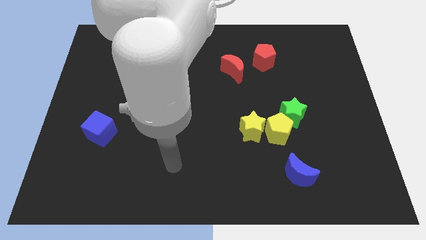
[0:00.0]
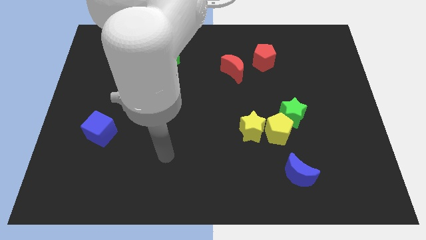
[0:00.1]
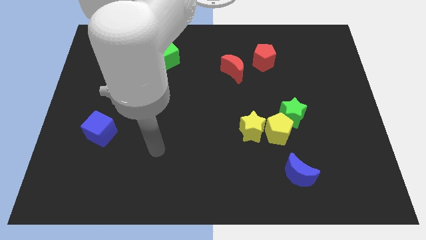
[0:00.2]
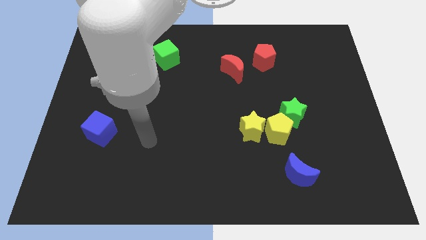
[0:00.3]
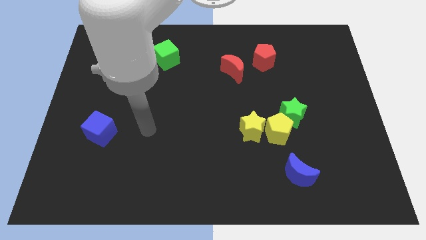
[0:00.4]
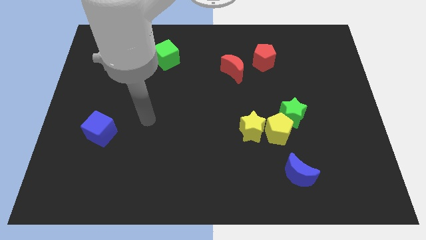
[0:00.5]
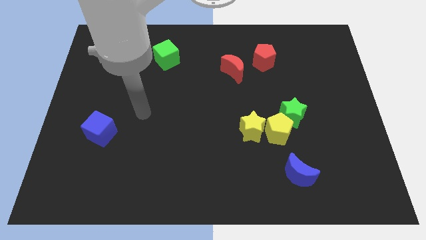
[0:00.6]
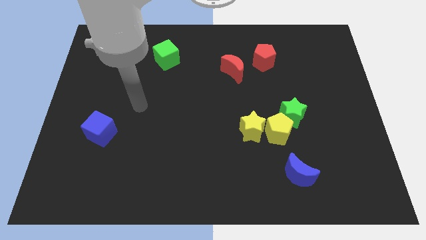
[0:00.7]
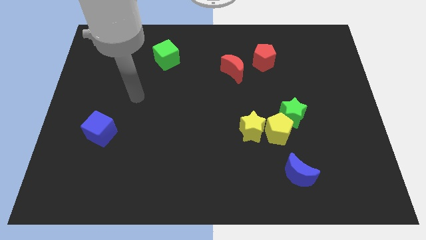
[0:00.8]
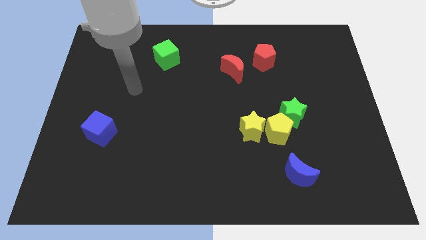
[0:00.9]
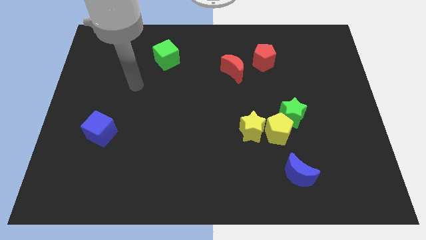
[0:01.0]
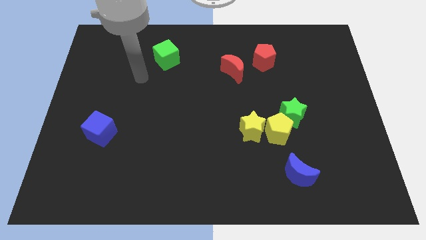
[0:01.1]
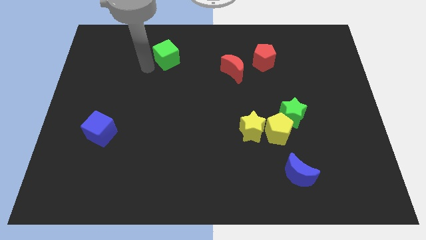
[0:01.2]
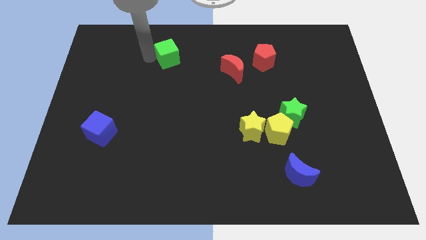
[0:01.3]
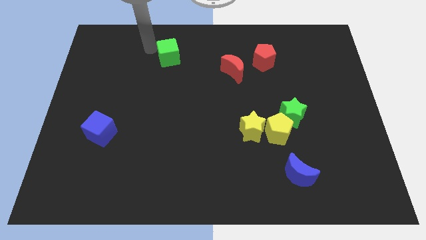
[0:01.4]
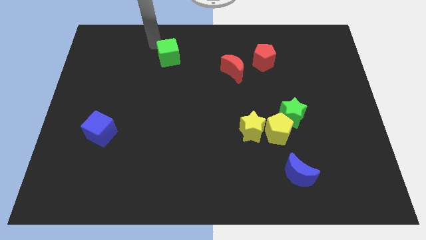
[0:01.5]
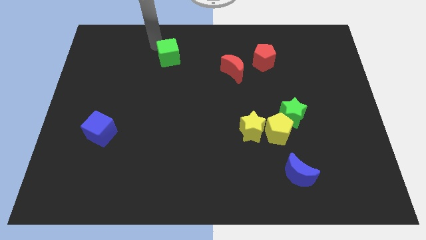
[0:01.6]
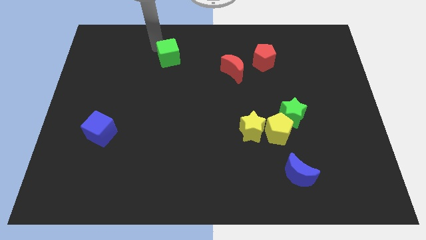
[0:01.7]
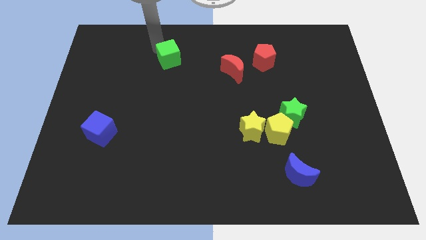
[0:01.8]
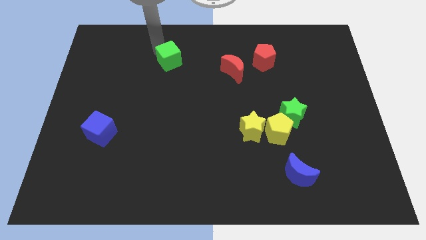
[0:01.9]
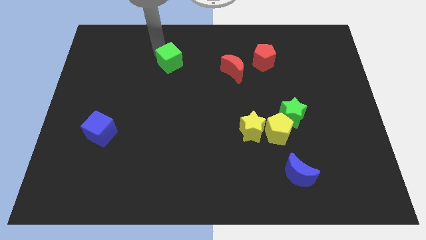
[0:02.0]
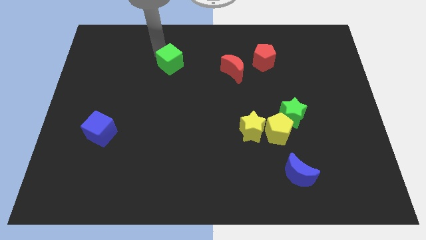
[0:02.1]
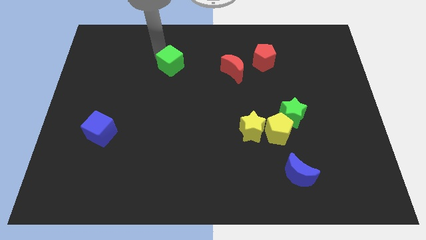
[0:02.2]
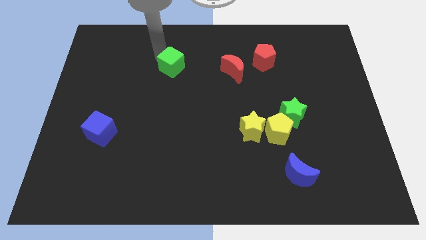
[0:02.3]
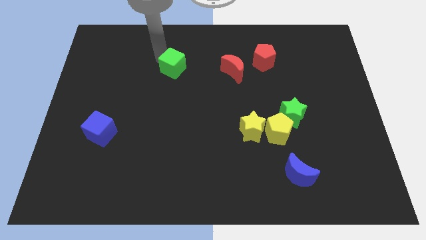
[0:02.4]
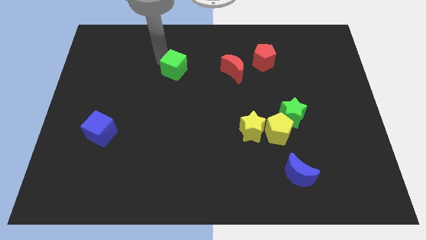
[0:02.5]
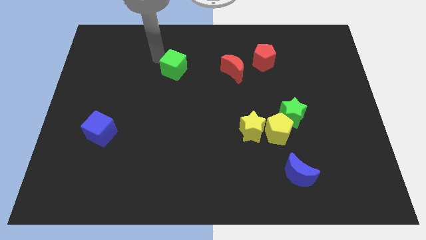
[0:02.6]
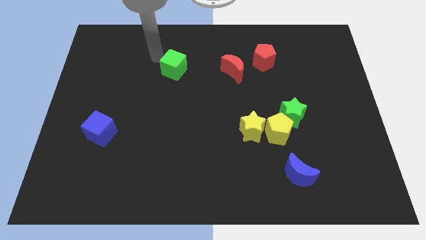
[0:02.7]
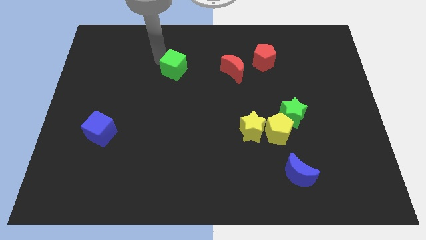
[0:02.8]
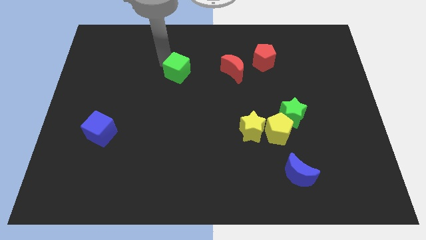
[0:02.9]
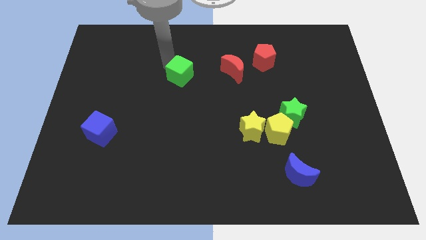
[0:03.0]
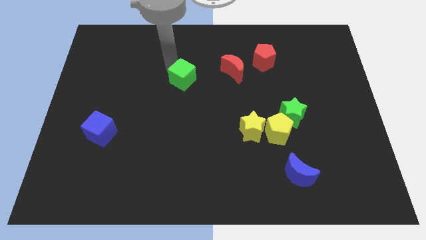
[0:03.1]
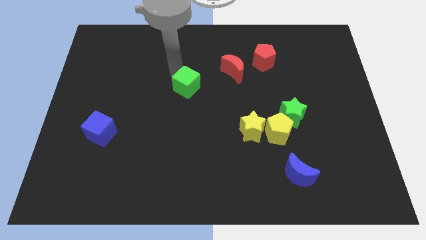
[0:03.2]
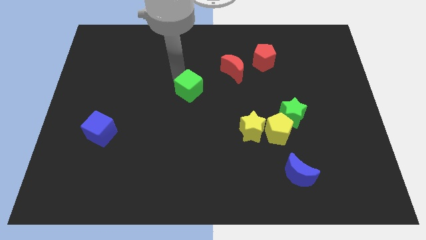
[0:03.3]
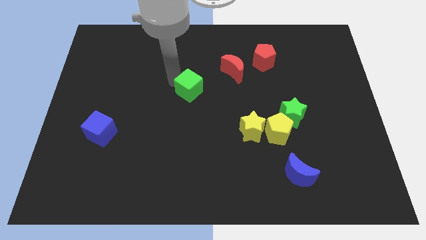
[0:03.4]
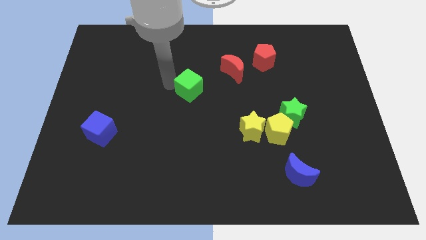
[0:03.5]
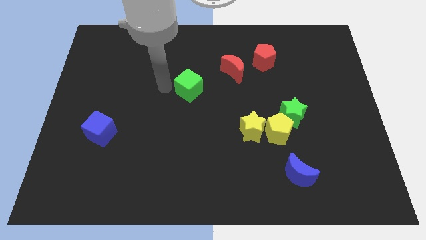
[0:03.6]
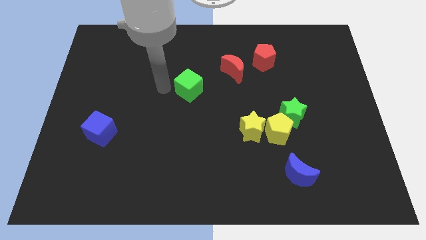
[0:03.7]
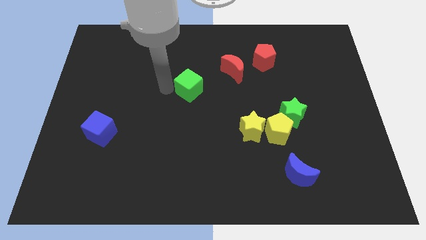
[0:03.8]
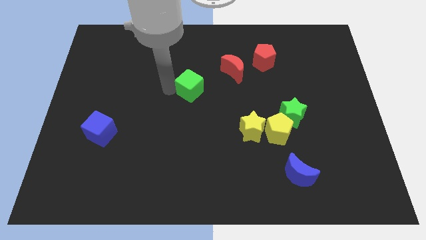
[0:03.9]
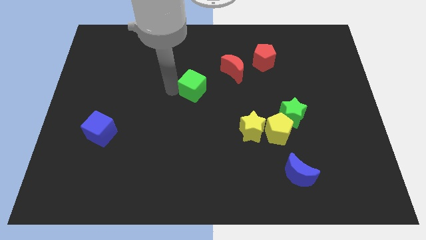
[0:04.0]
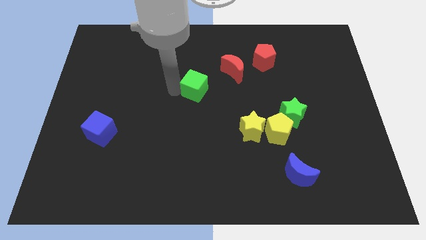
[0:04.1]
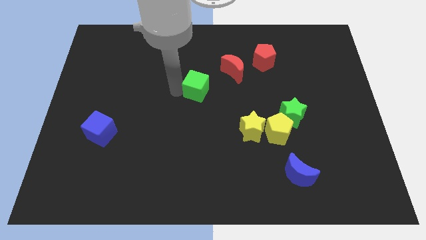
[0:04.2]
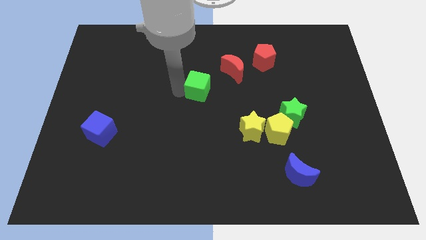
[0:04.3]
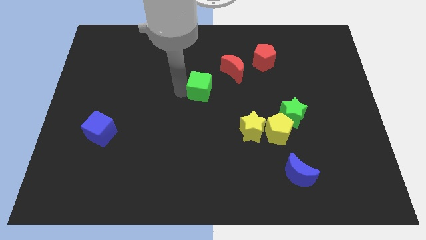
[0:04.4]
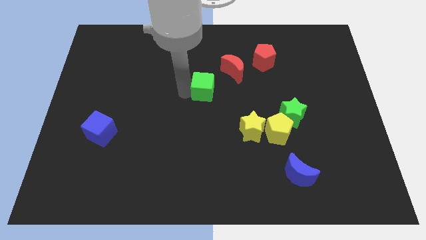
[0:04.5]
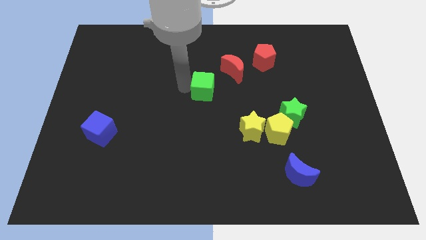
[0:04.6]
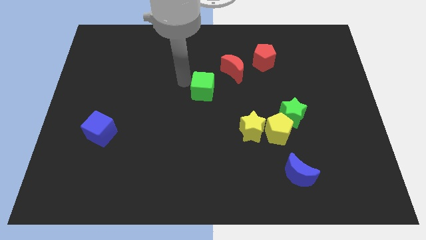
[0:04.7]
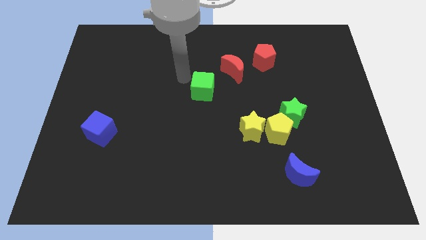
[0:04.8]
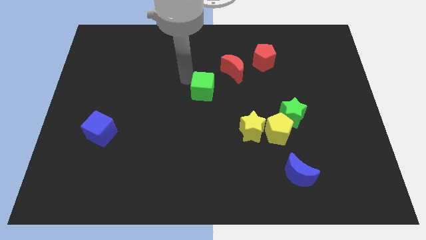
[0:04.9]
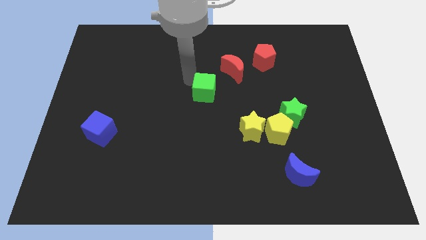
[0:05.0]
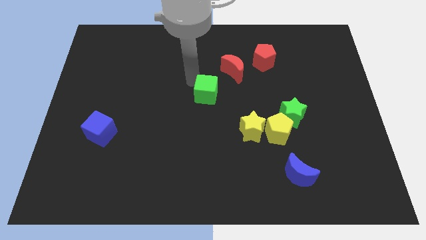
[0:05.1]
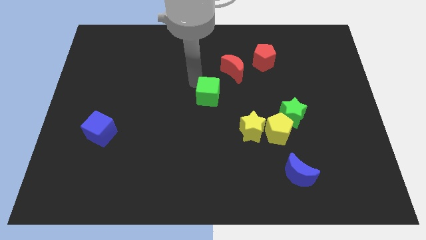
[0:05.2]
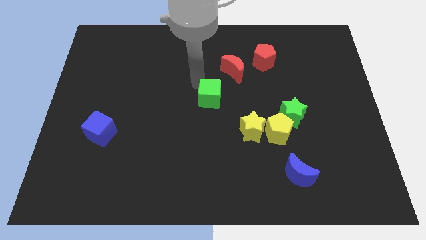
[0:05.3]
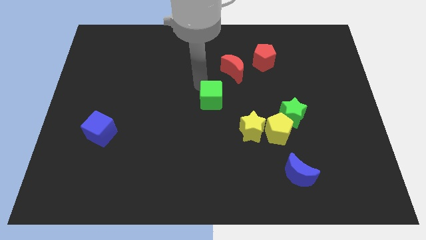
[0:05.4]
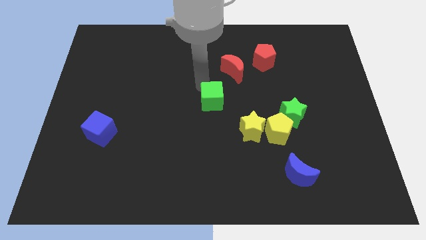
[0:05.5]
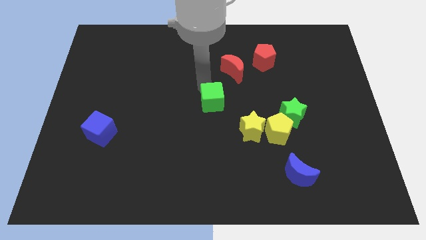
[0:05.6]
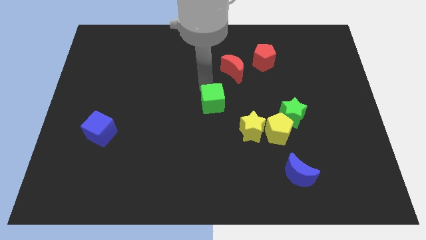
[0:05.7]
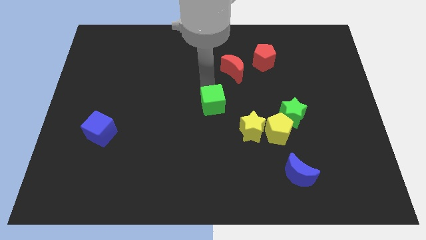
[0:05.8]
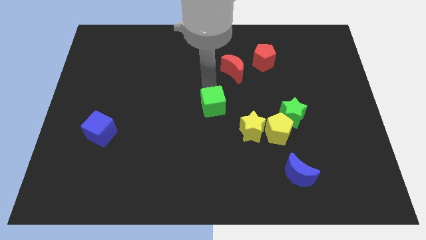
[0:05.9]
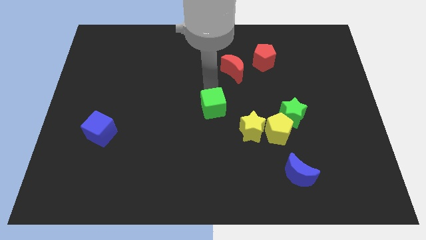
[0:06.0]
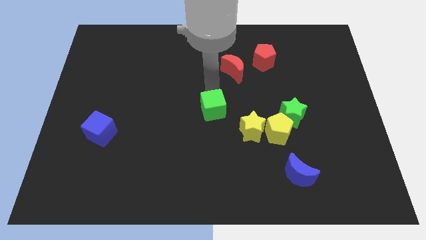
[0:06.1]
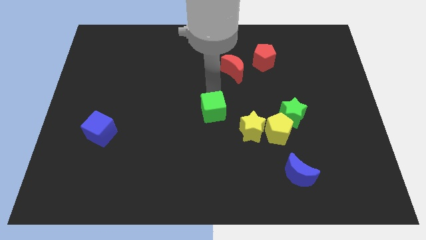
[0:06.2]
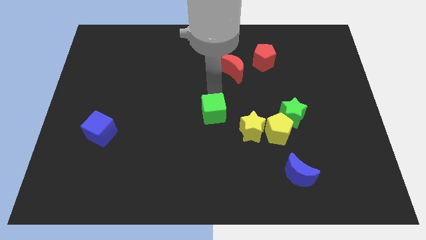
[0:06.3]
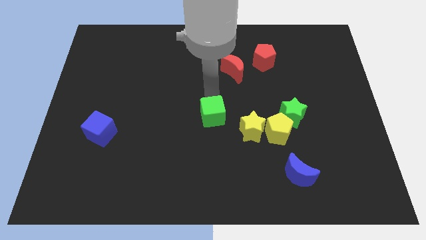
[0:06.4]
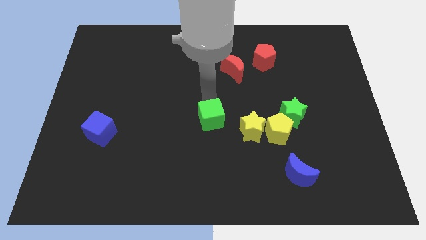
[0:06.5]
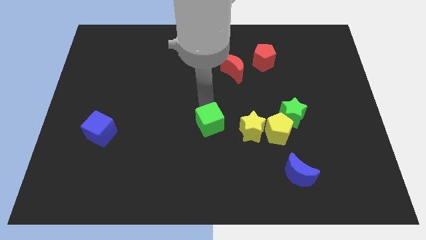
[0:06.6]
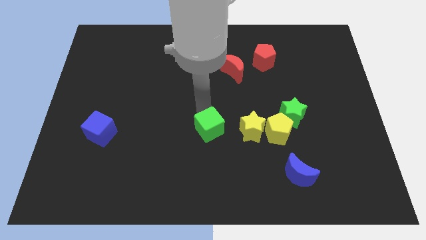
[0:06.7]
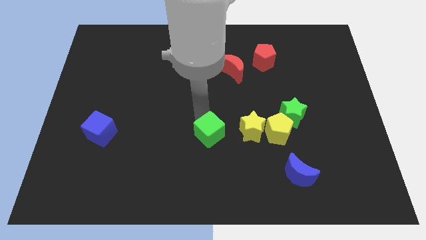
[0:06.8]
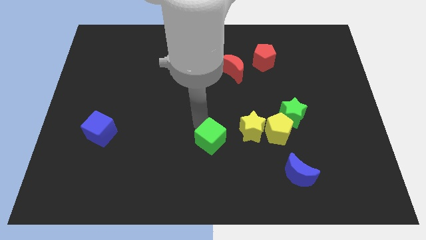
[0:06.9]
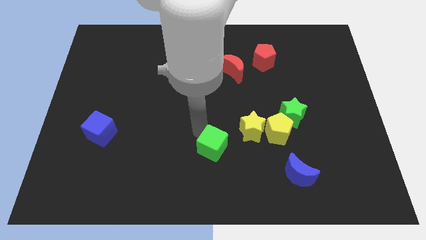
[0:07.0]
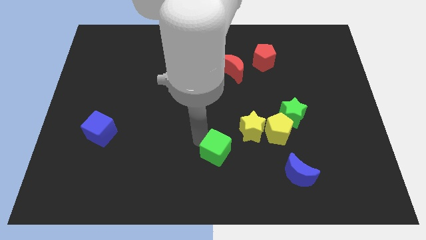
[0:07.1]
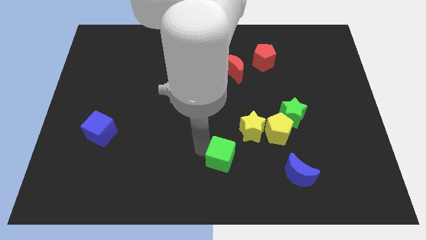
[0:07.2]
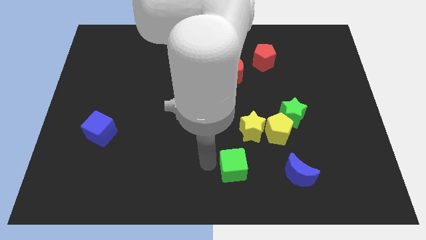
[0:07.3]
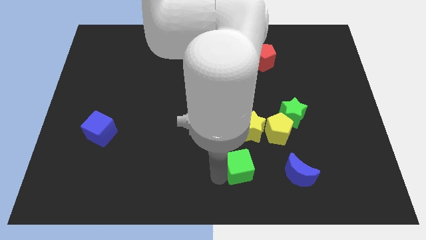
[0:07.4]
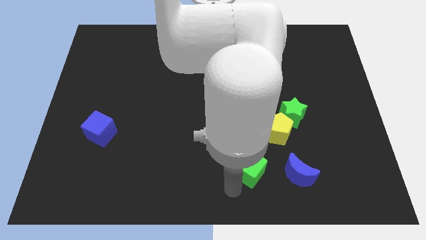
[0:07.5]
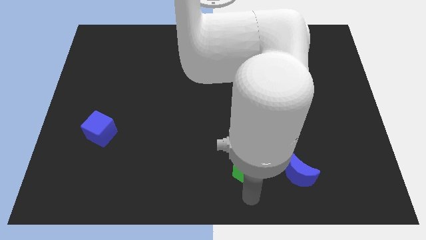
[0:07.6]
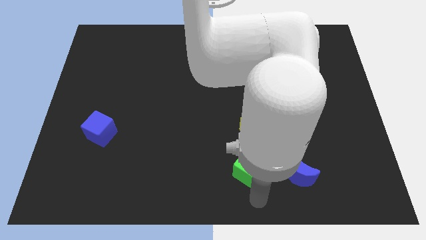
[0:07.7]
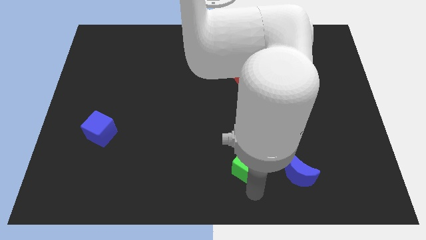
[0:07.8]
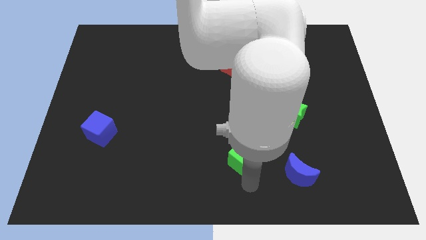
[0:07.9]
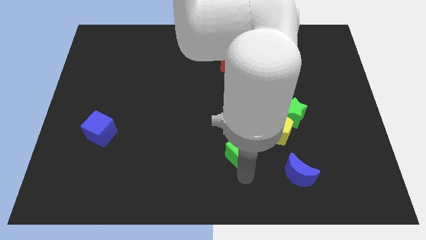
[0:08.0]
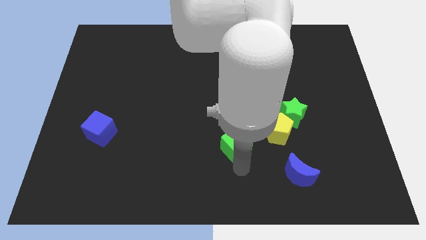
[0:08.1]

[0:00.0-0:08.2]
push the green cube next to the yellow star
